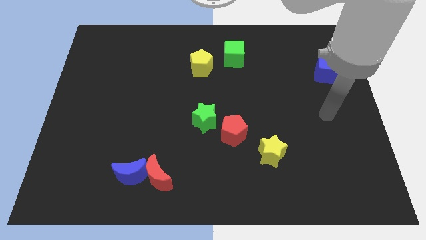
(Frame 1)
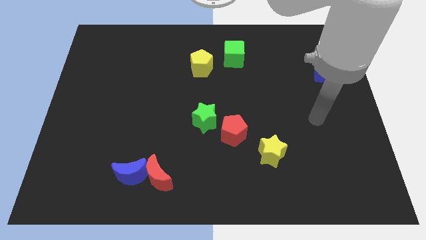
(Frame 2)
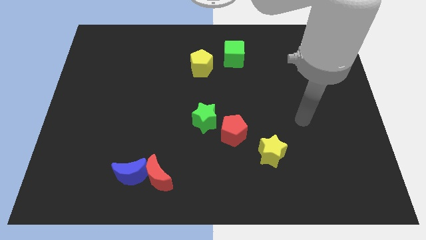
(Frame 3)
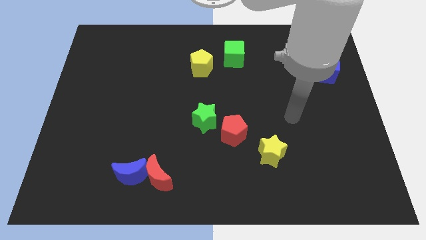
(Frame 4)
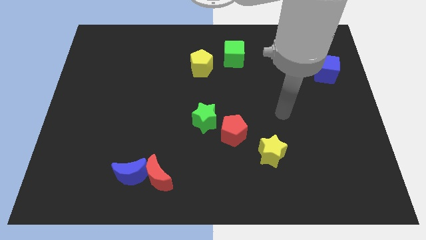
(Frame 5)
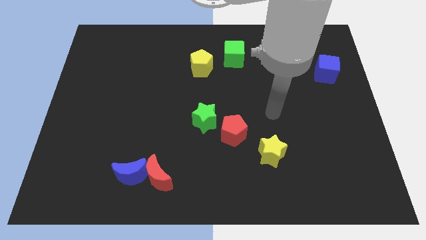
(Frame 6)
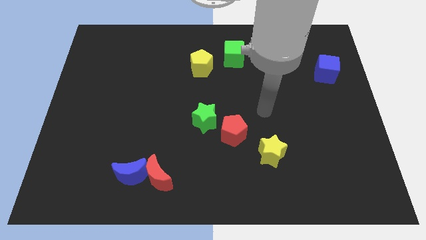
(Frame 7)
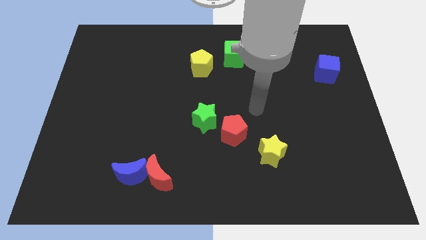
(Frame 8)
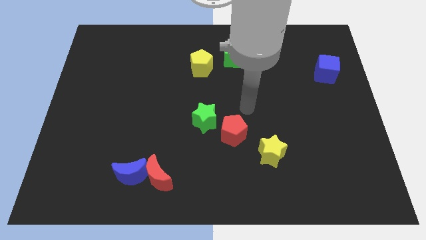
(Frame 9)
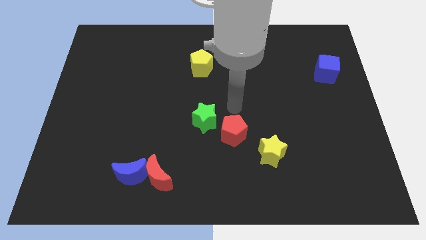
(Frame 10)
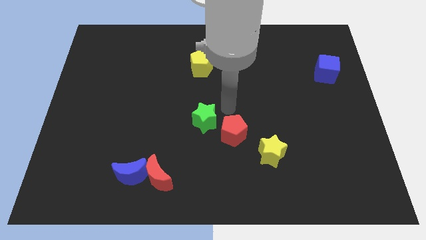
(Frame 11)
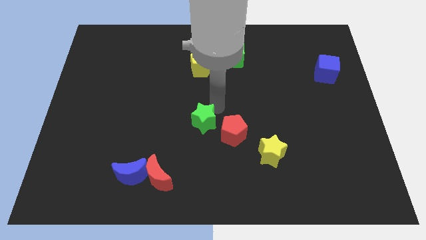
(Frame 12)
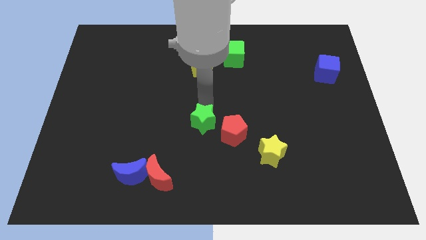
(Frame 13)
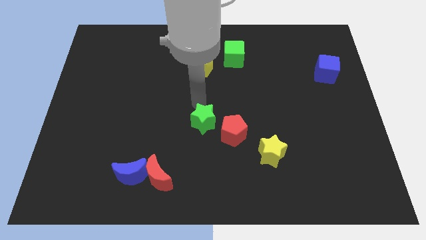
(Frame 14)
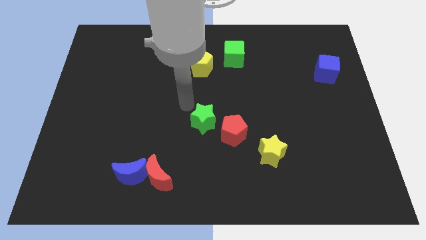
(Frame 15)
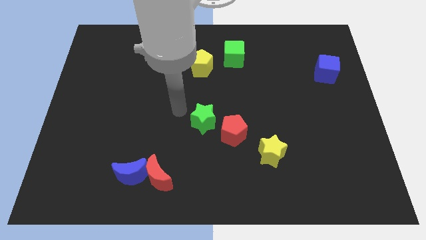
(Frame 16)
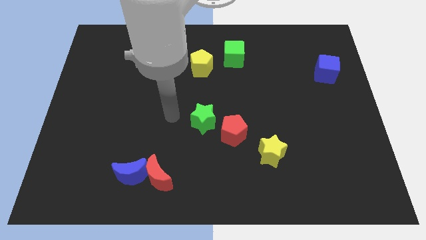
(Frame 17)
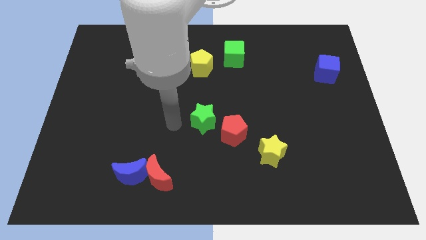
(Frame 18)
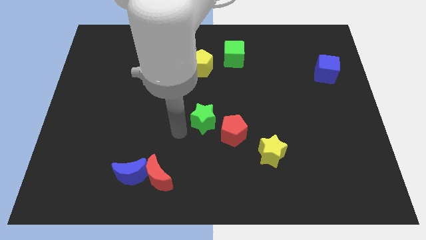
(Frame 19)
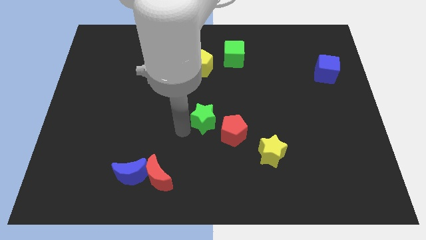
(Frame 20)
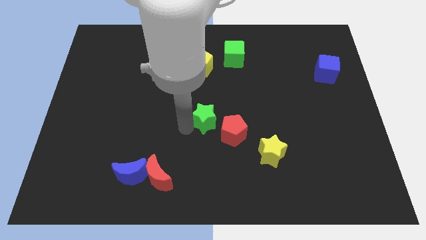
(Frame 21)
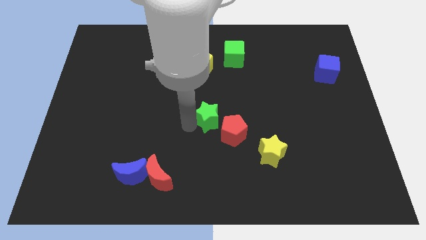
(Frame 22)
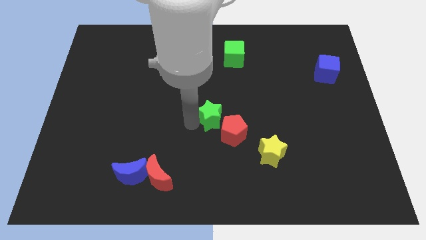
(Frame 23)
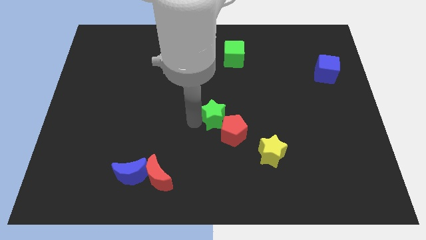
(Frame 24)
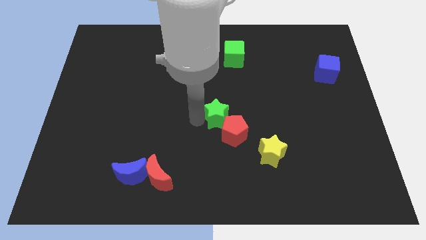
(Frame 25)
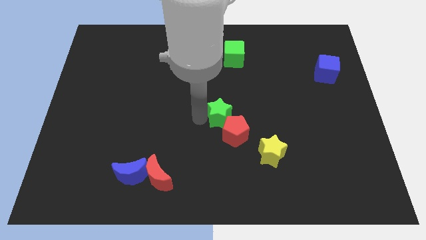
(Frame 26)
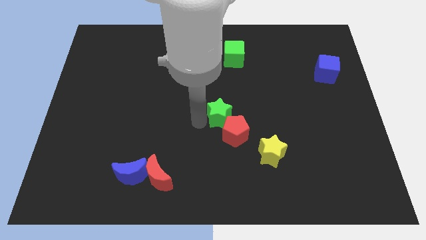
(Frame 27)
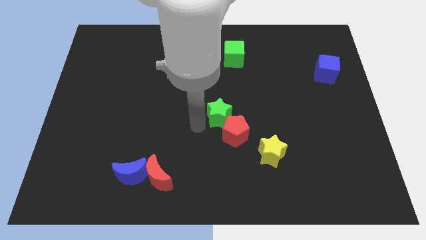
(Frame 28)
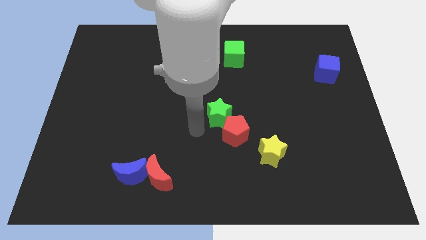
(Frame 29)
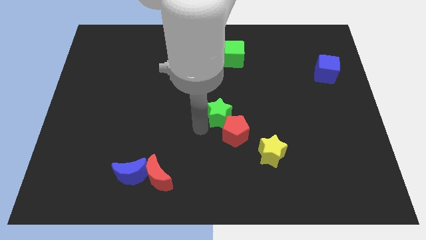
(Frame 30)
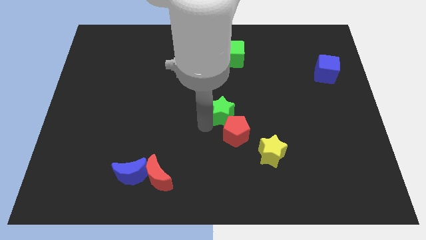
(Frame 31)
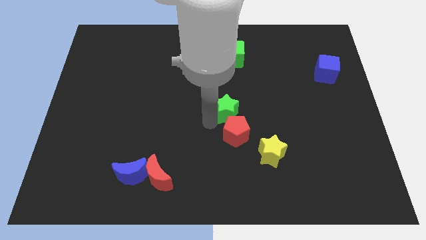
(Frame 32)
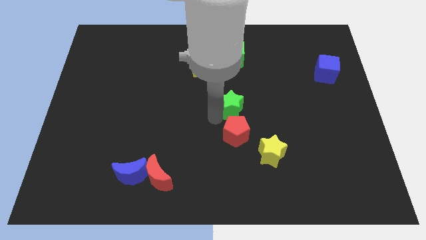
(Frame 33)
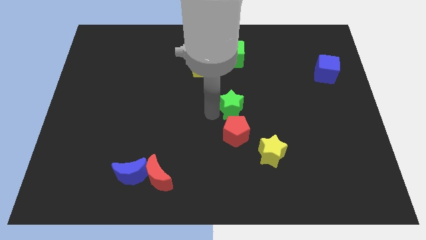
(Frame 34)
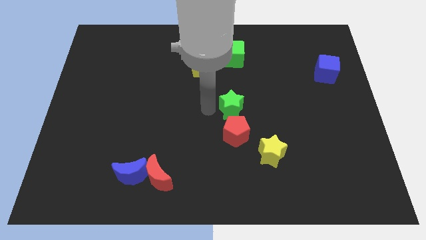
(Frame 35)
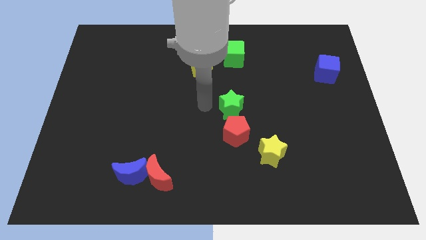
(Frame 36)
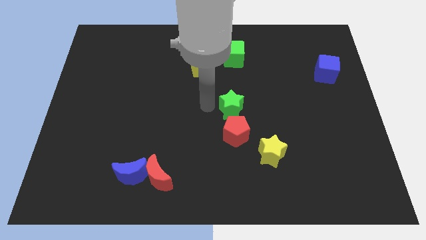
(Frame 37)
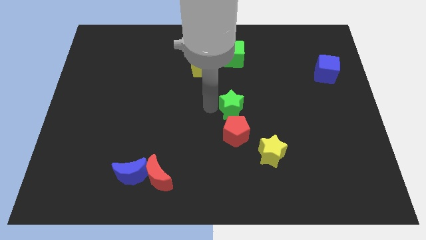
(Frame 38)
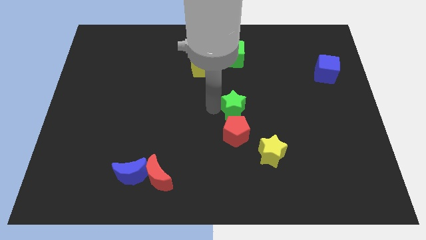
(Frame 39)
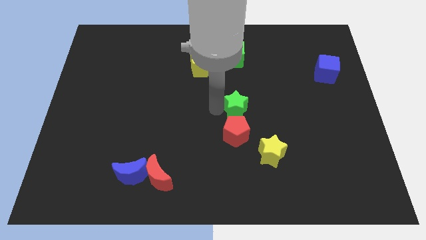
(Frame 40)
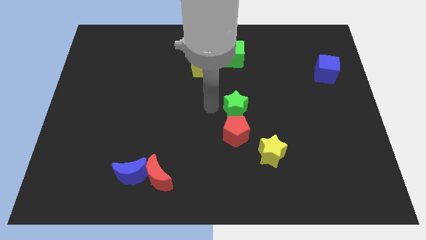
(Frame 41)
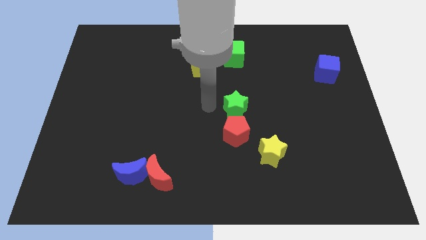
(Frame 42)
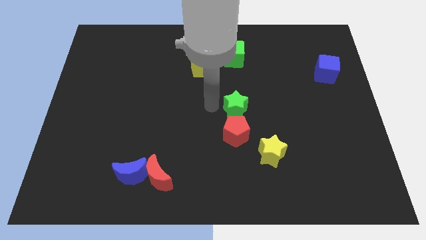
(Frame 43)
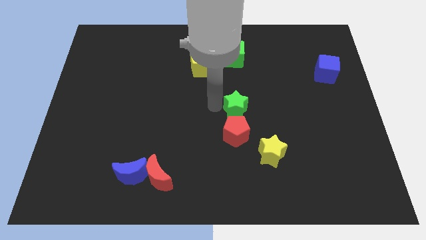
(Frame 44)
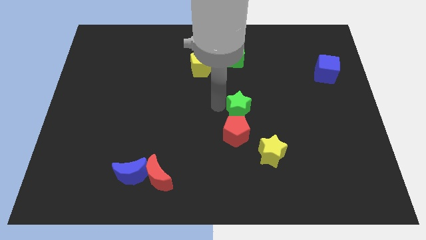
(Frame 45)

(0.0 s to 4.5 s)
slightly push the green star right

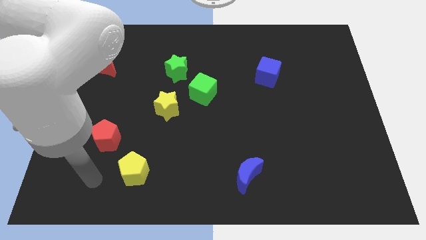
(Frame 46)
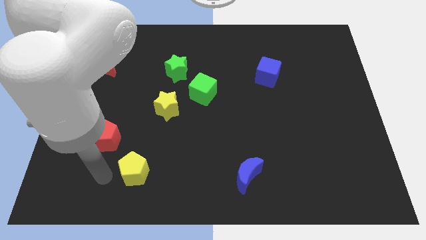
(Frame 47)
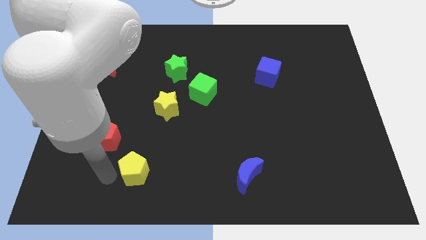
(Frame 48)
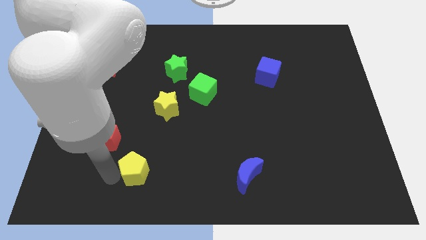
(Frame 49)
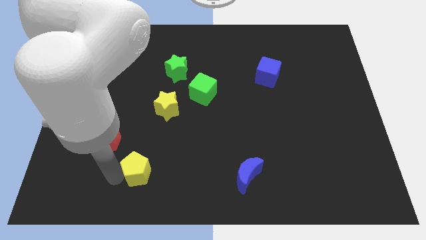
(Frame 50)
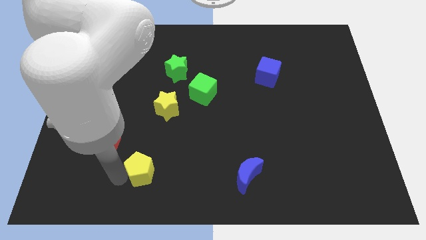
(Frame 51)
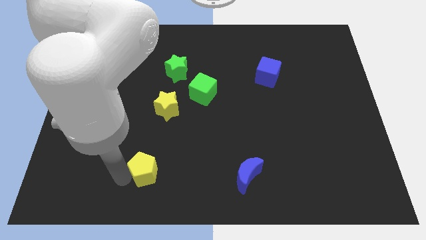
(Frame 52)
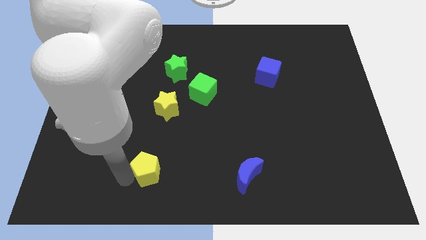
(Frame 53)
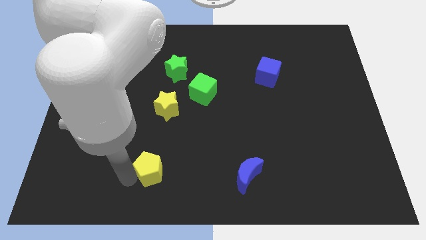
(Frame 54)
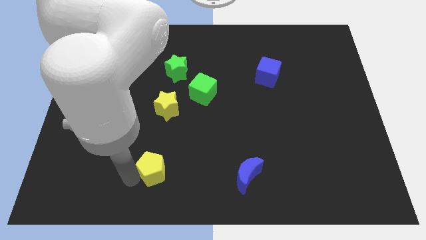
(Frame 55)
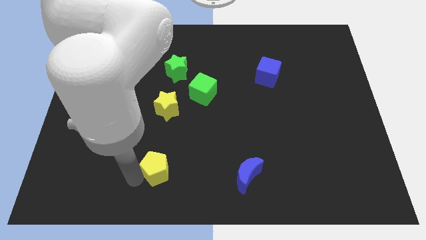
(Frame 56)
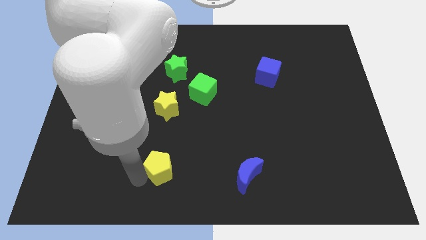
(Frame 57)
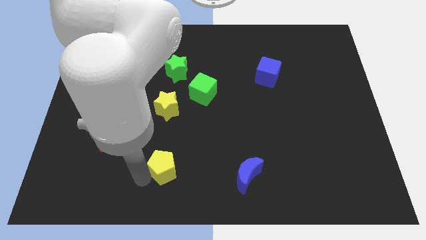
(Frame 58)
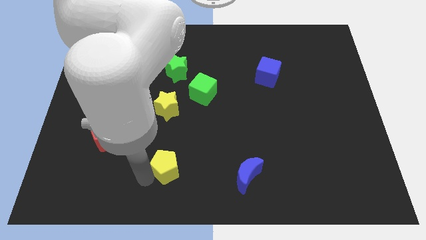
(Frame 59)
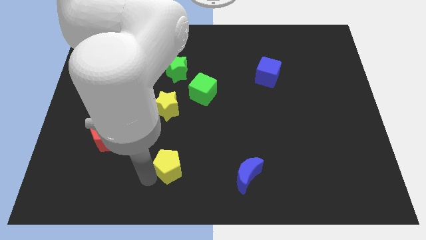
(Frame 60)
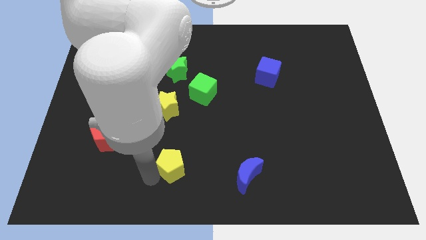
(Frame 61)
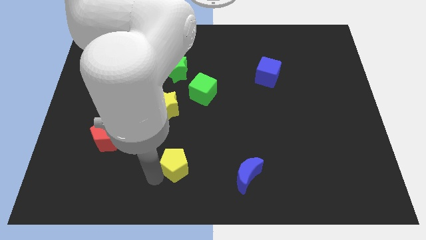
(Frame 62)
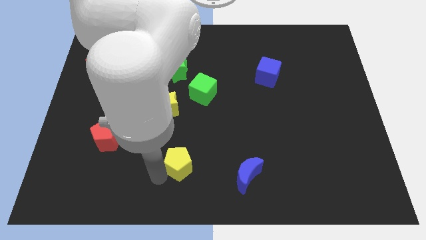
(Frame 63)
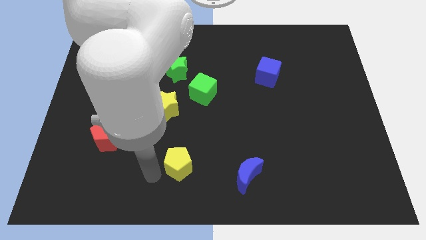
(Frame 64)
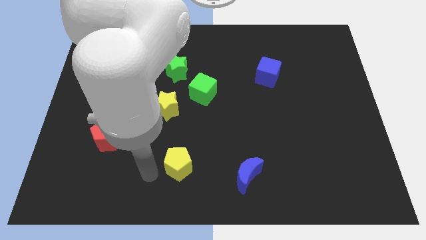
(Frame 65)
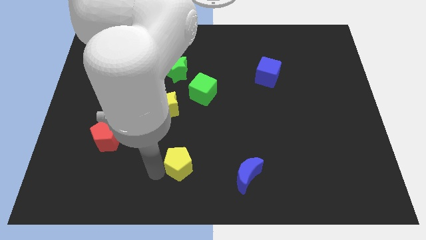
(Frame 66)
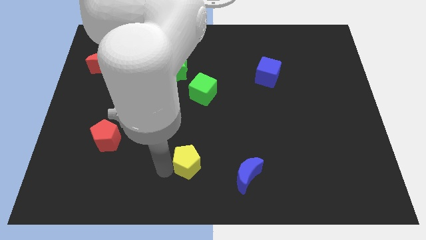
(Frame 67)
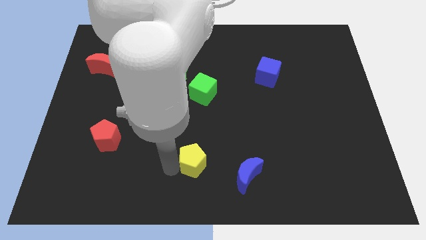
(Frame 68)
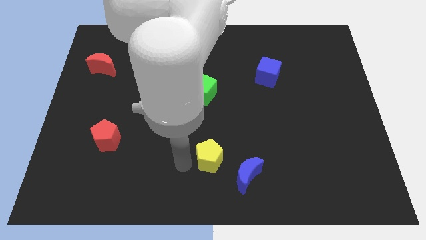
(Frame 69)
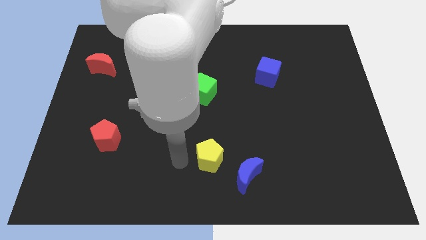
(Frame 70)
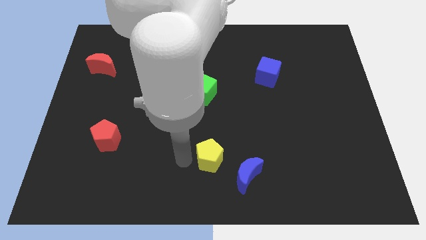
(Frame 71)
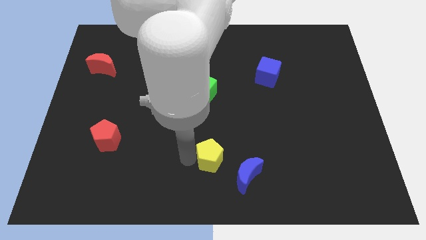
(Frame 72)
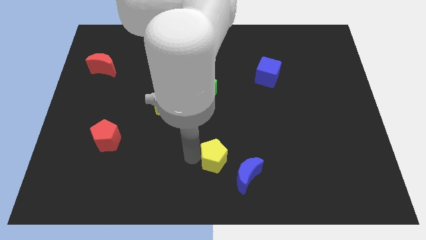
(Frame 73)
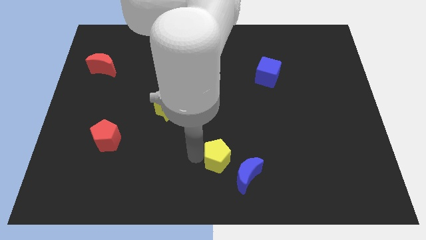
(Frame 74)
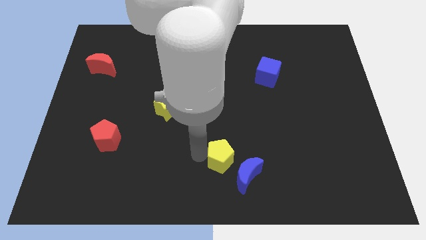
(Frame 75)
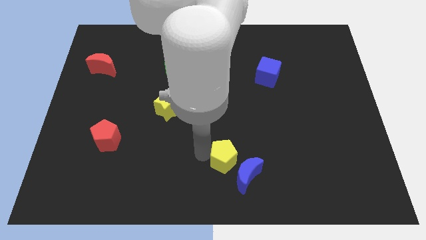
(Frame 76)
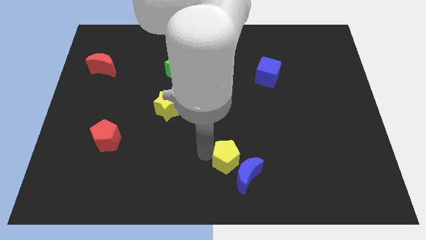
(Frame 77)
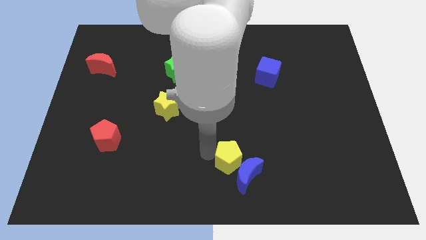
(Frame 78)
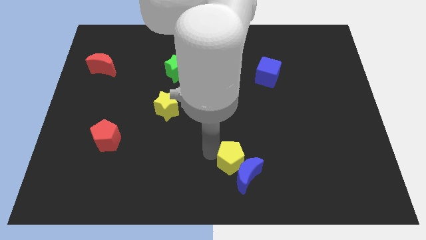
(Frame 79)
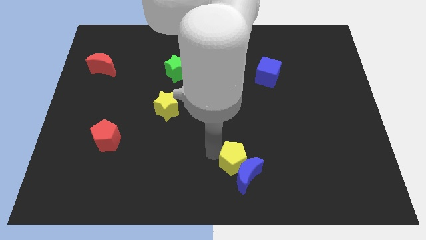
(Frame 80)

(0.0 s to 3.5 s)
slide the yellow pentagon right
